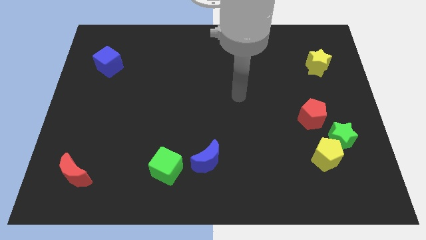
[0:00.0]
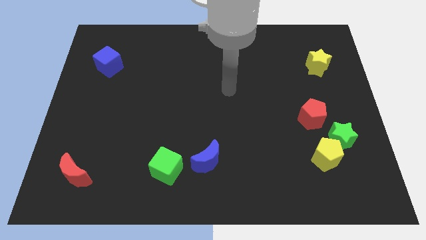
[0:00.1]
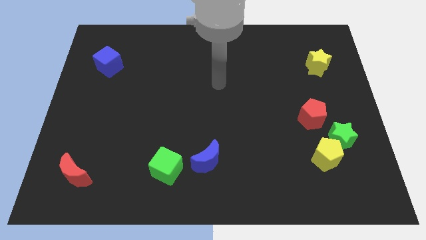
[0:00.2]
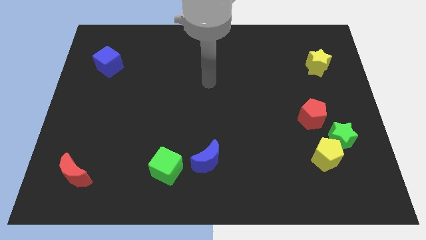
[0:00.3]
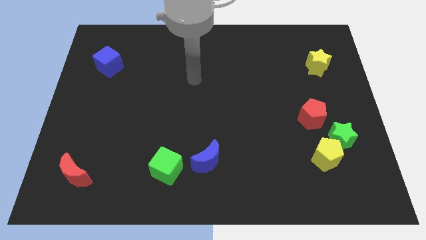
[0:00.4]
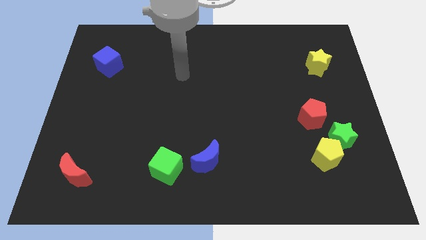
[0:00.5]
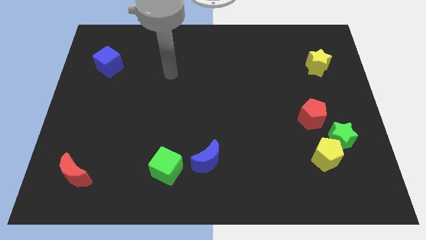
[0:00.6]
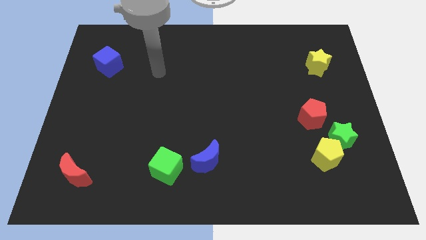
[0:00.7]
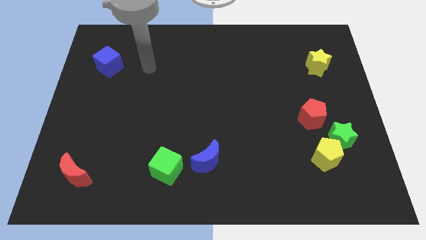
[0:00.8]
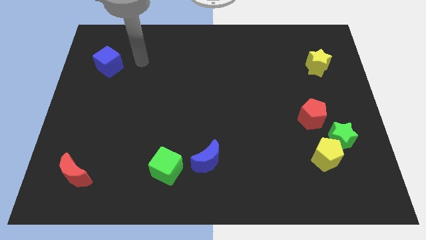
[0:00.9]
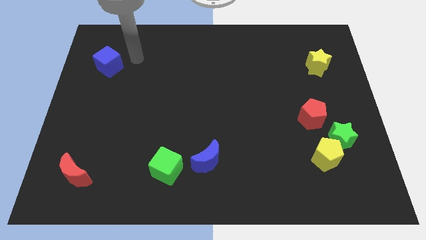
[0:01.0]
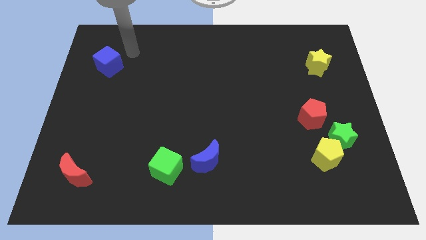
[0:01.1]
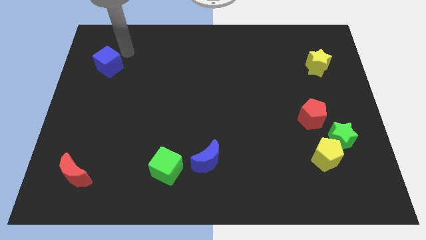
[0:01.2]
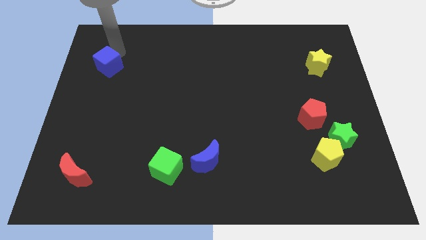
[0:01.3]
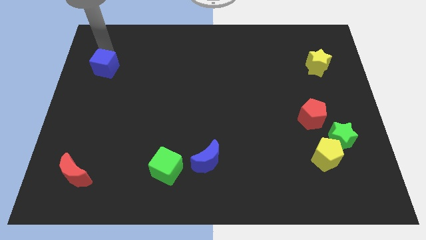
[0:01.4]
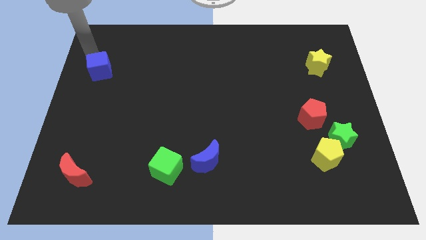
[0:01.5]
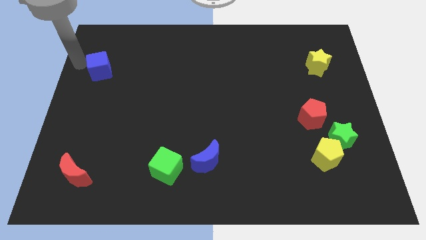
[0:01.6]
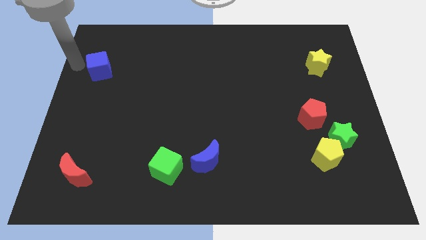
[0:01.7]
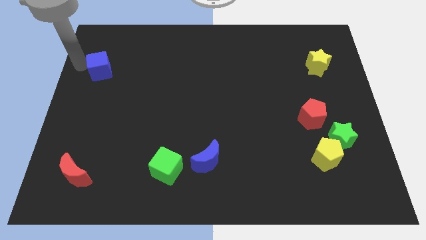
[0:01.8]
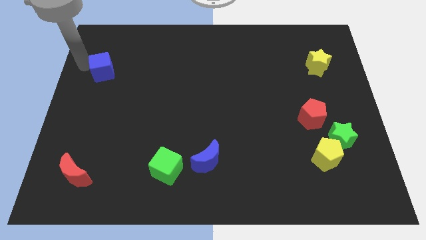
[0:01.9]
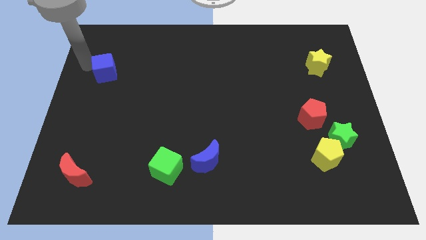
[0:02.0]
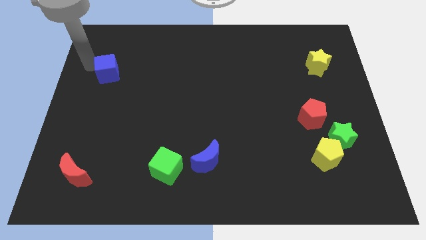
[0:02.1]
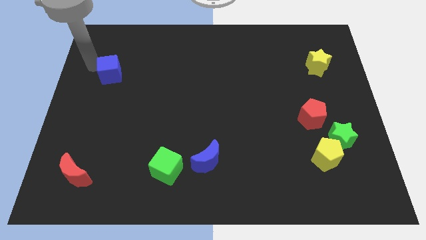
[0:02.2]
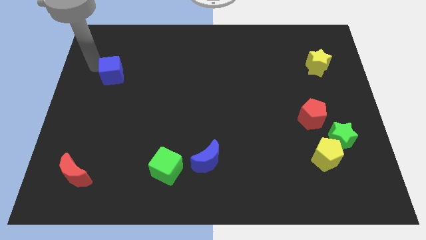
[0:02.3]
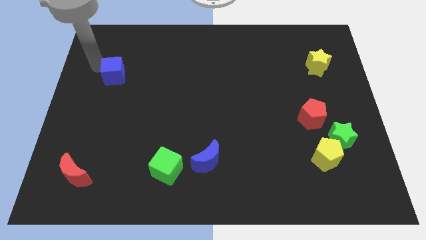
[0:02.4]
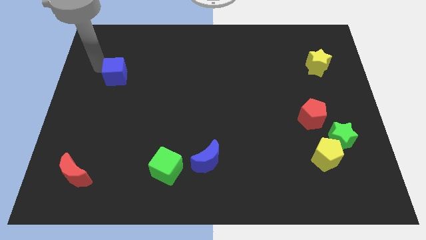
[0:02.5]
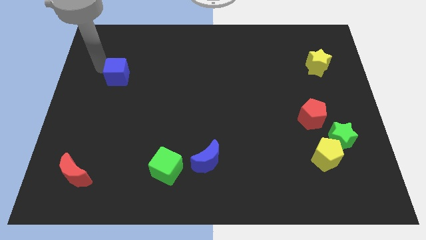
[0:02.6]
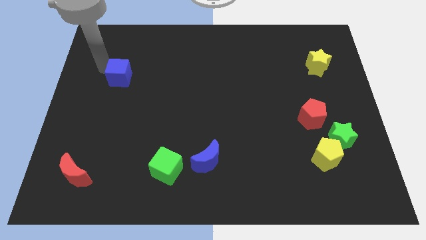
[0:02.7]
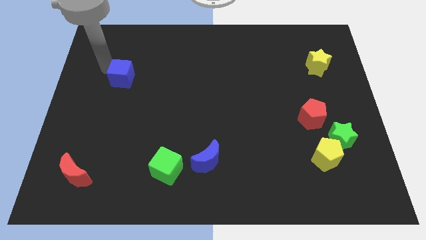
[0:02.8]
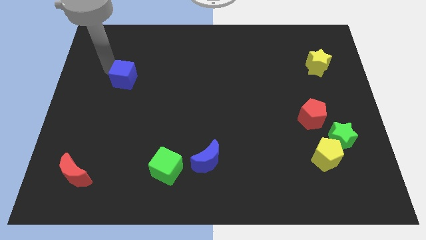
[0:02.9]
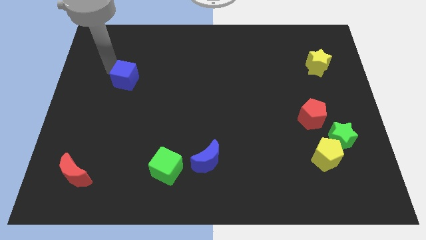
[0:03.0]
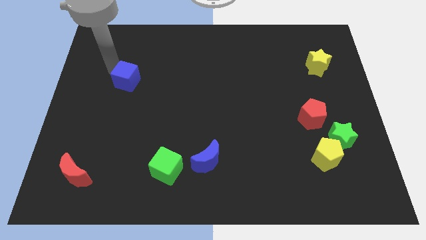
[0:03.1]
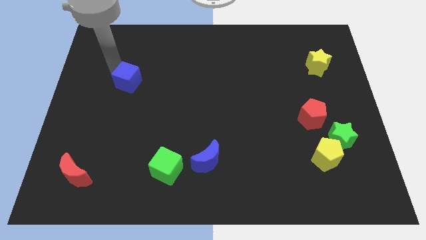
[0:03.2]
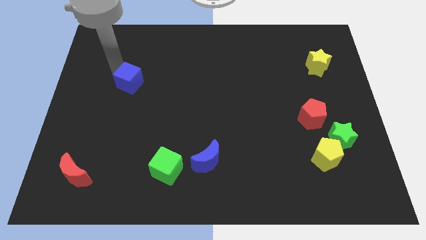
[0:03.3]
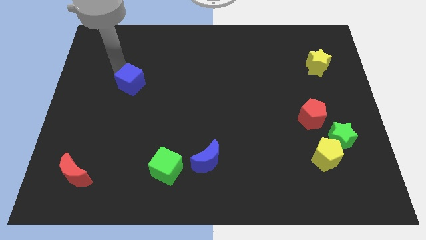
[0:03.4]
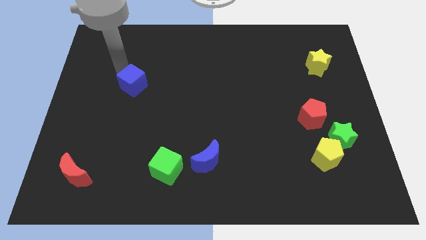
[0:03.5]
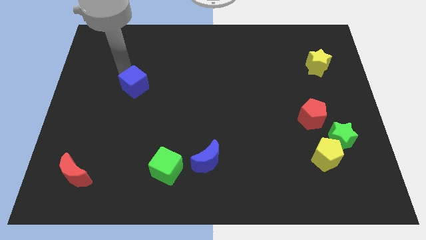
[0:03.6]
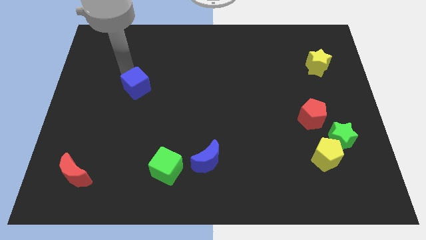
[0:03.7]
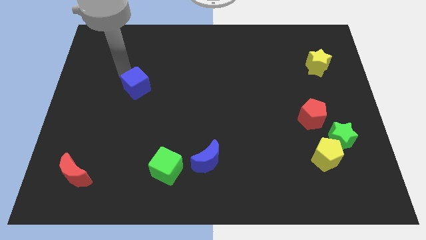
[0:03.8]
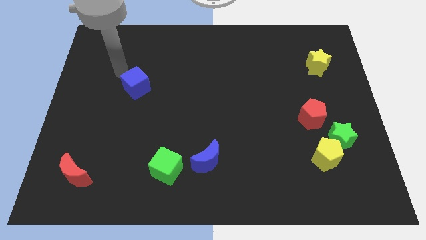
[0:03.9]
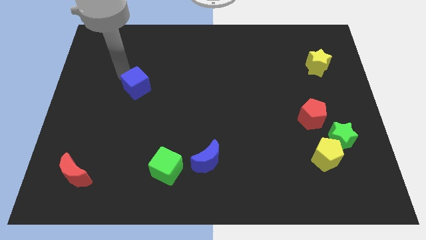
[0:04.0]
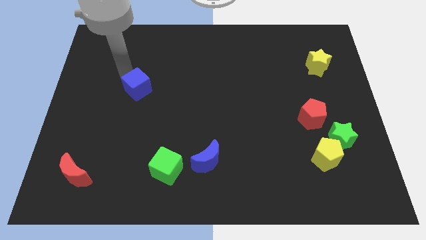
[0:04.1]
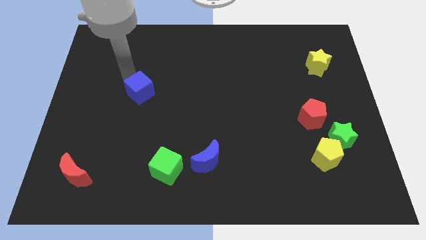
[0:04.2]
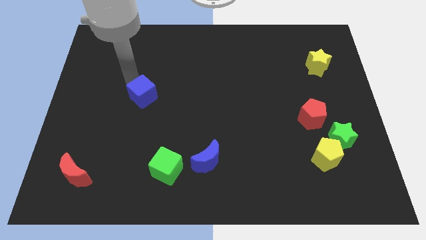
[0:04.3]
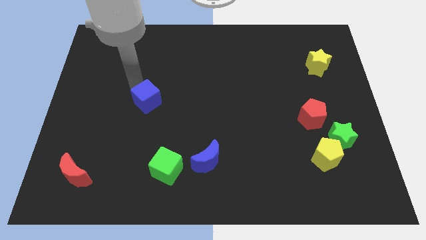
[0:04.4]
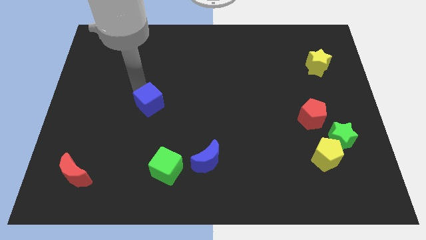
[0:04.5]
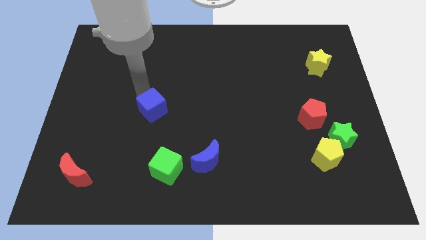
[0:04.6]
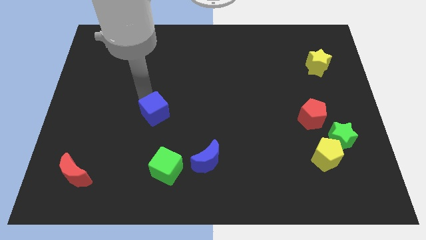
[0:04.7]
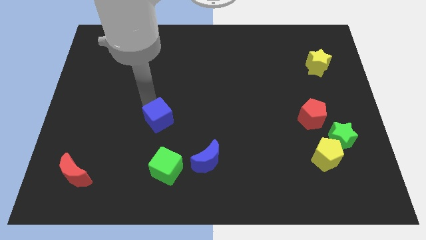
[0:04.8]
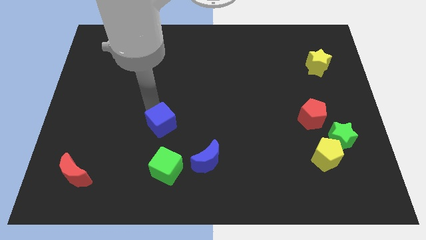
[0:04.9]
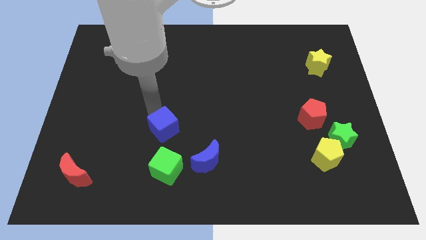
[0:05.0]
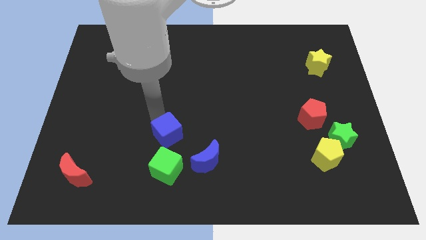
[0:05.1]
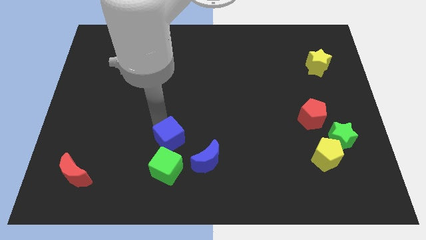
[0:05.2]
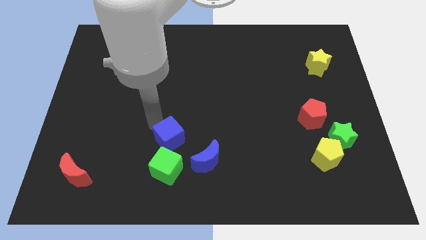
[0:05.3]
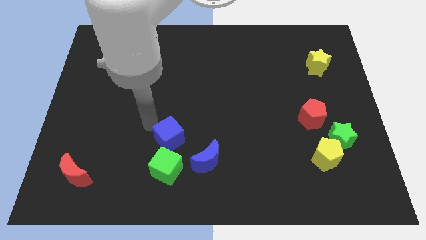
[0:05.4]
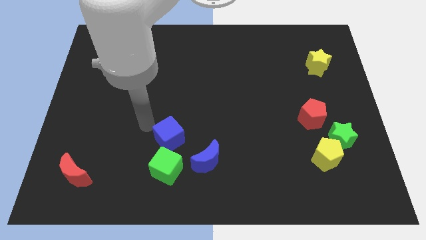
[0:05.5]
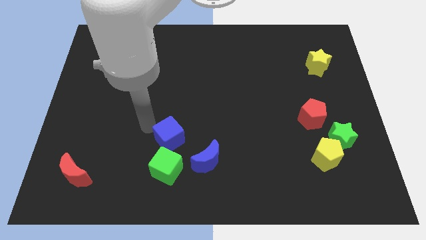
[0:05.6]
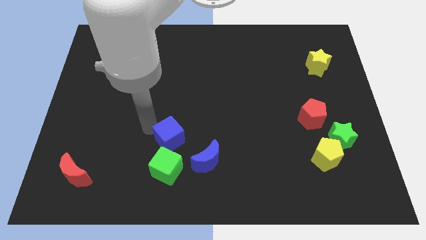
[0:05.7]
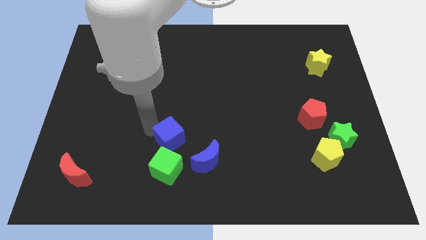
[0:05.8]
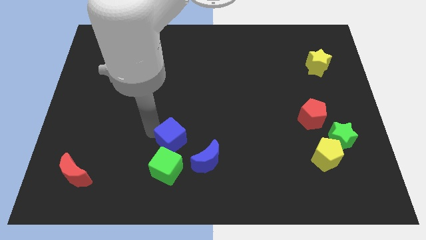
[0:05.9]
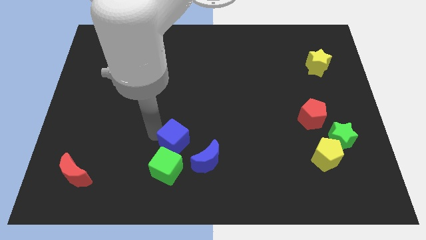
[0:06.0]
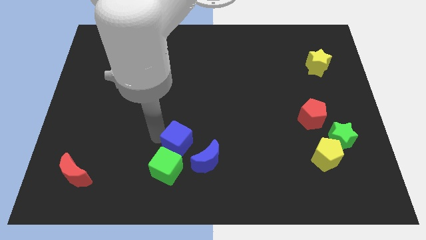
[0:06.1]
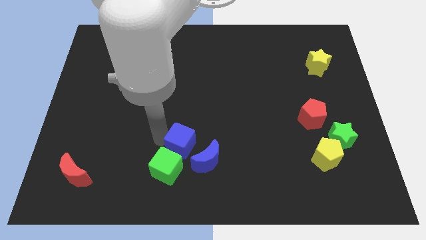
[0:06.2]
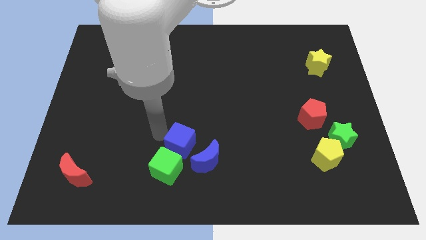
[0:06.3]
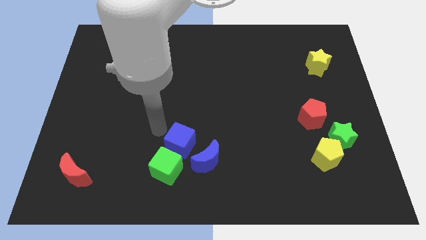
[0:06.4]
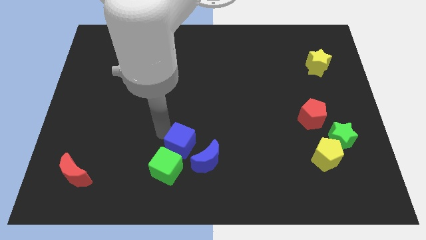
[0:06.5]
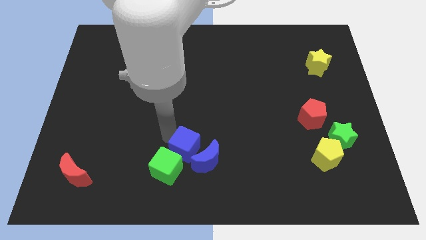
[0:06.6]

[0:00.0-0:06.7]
push the blue cube towards the blue moon
